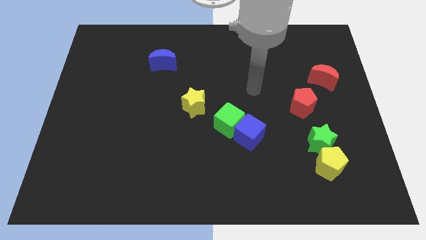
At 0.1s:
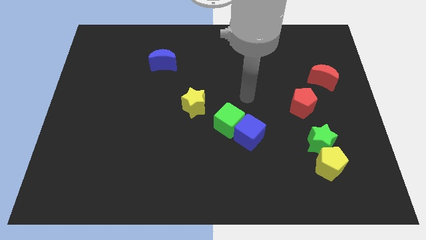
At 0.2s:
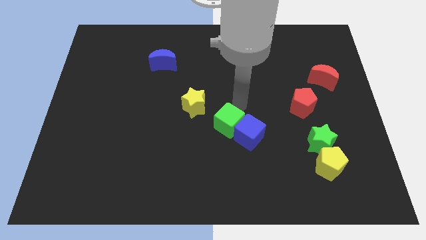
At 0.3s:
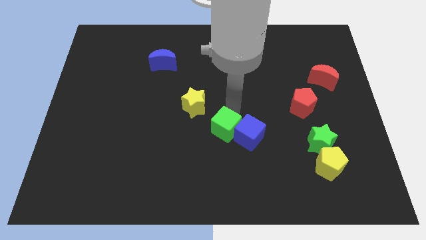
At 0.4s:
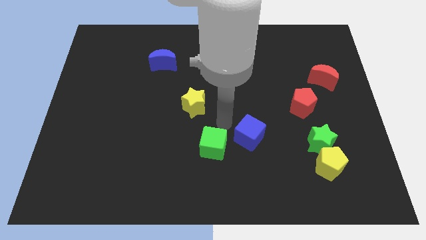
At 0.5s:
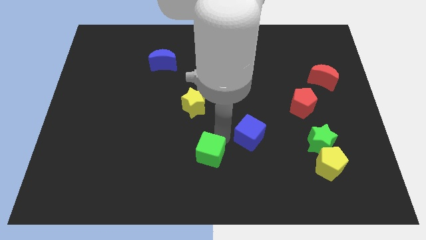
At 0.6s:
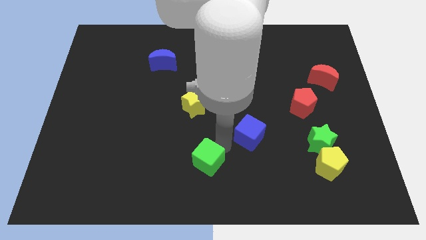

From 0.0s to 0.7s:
pull the blue cube apart from the green cube

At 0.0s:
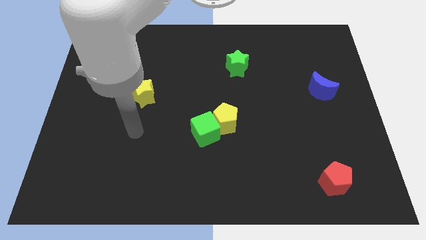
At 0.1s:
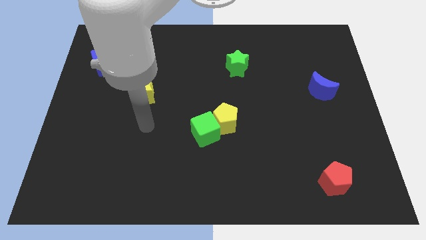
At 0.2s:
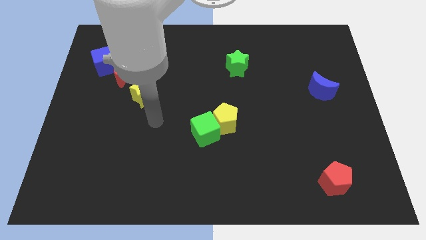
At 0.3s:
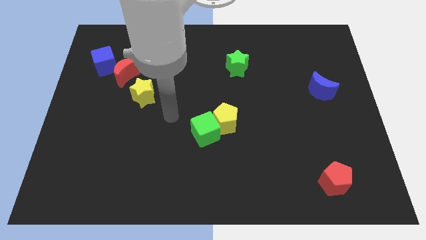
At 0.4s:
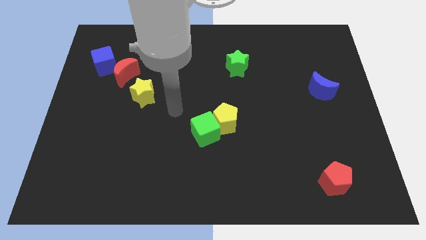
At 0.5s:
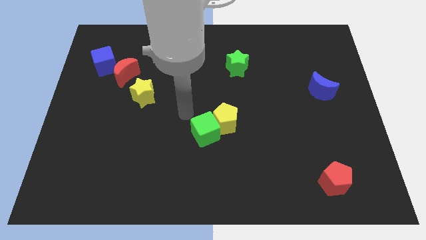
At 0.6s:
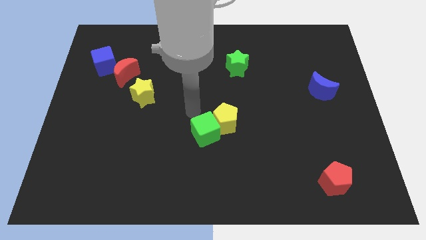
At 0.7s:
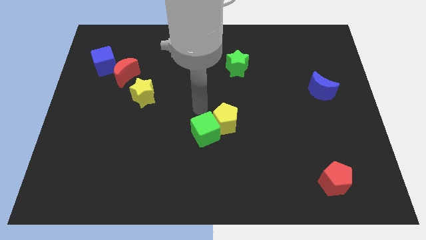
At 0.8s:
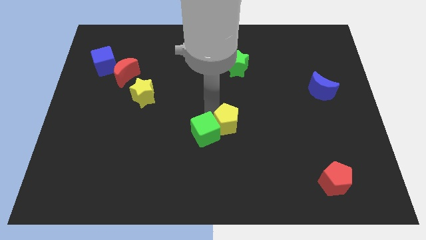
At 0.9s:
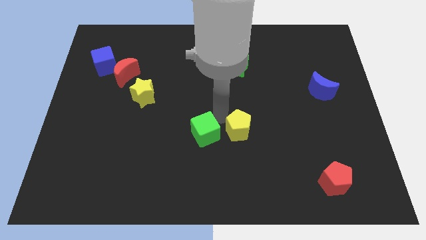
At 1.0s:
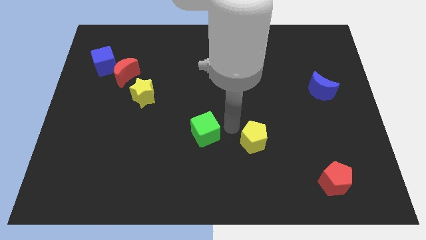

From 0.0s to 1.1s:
move the green cube away from the yellow pentagon

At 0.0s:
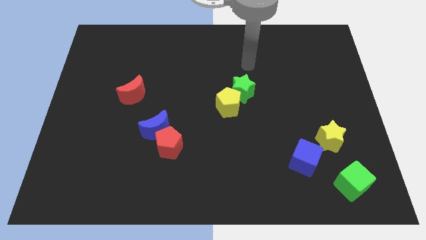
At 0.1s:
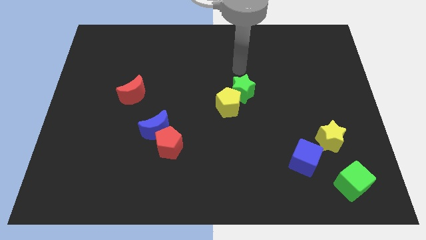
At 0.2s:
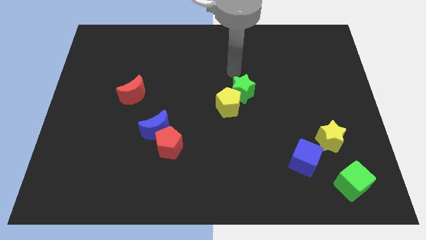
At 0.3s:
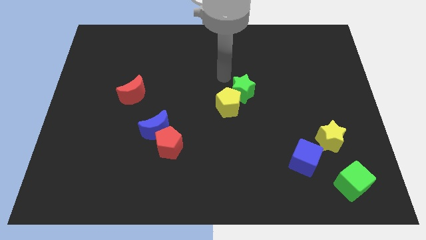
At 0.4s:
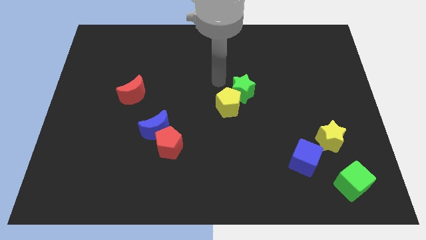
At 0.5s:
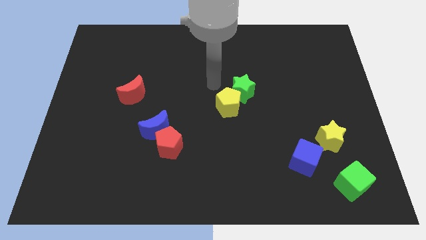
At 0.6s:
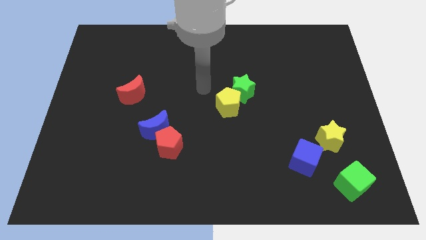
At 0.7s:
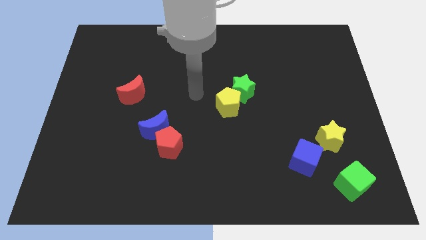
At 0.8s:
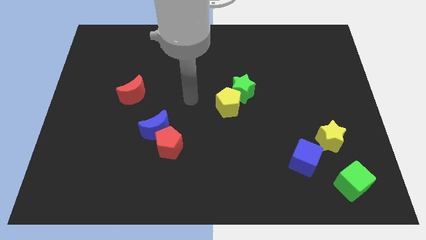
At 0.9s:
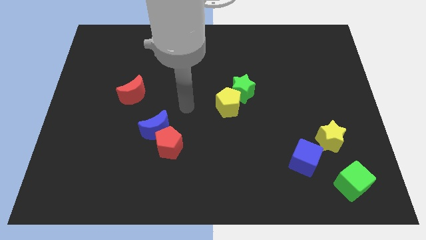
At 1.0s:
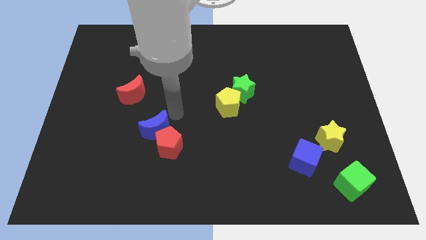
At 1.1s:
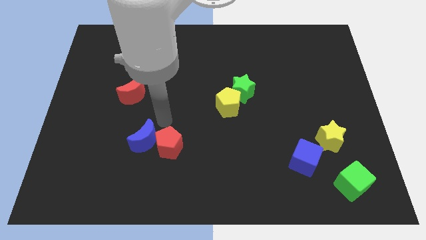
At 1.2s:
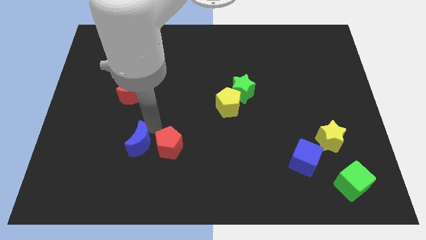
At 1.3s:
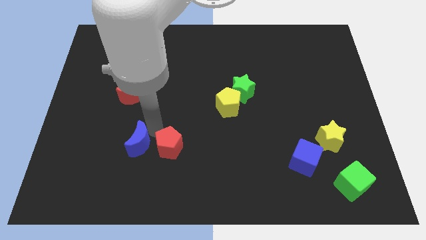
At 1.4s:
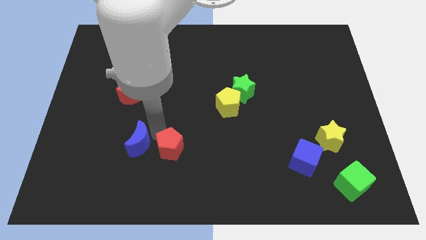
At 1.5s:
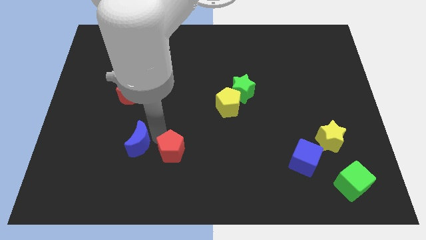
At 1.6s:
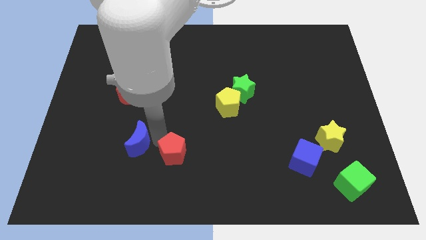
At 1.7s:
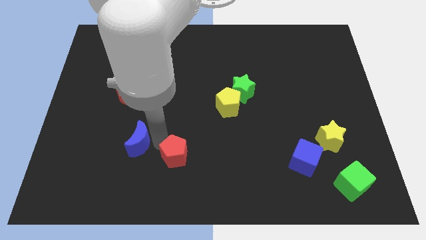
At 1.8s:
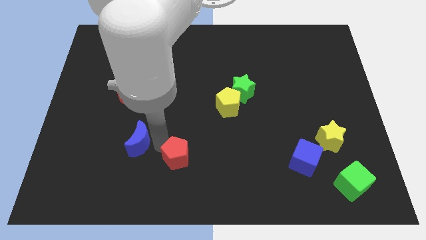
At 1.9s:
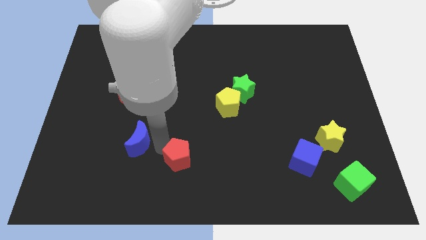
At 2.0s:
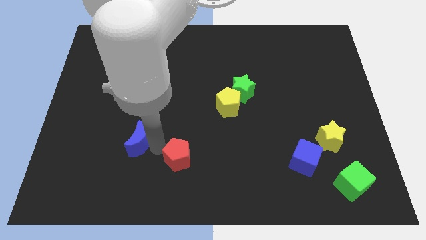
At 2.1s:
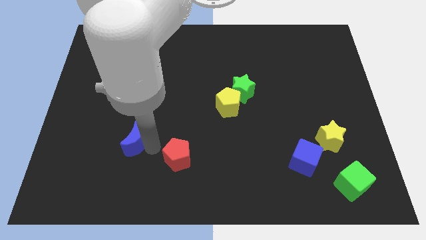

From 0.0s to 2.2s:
pull the red pentagon apart from the blue moon

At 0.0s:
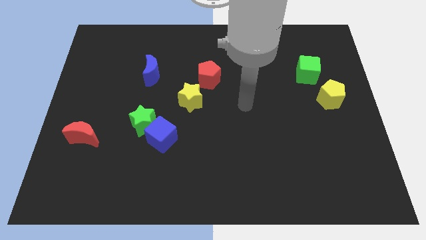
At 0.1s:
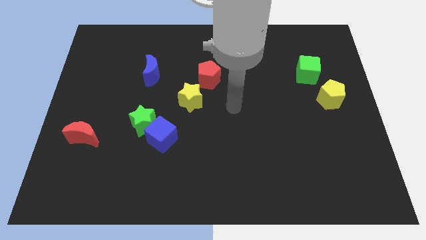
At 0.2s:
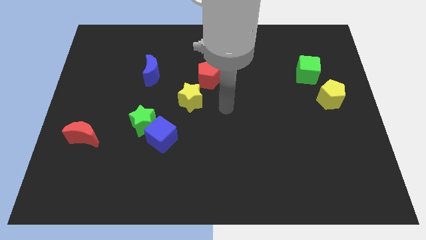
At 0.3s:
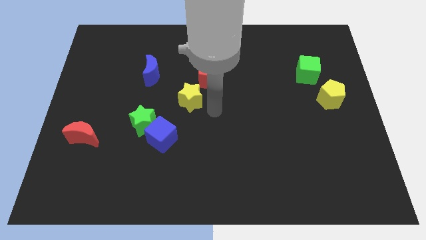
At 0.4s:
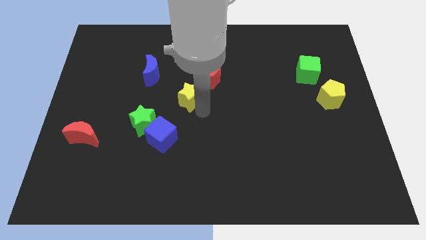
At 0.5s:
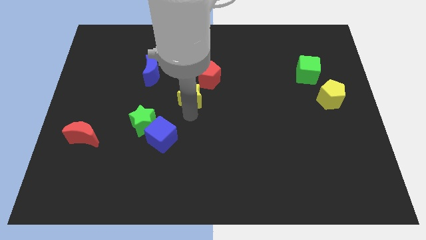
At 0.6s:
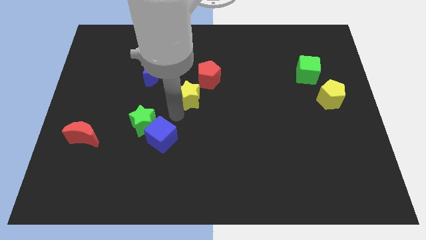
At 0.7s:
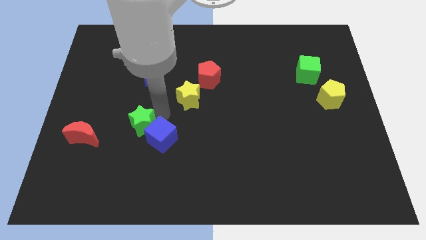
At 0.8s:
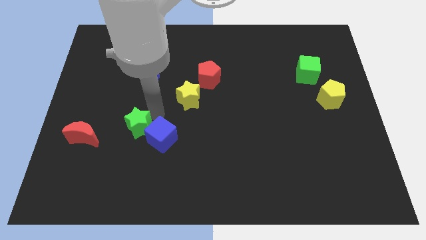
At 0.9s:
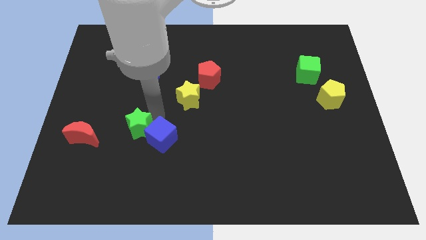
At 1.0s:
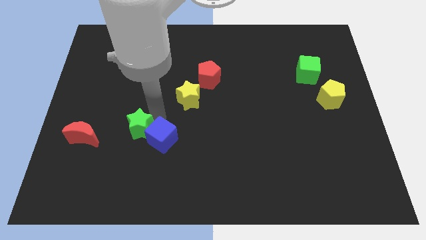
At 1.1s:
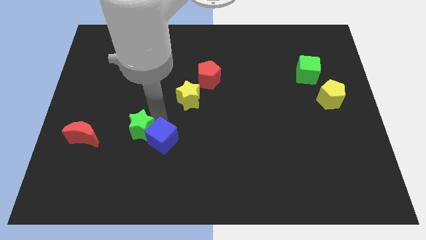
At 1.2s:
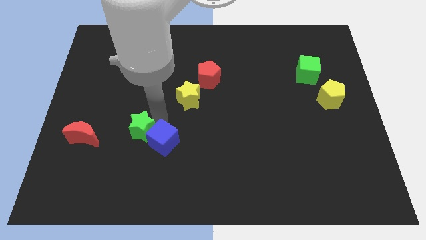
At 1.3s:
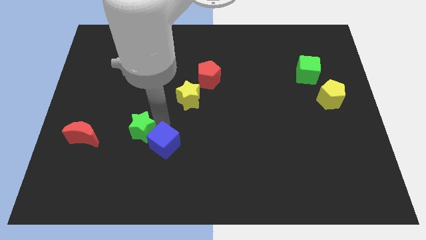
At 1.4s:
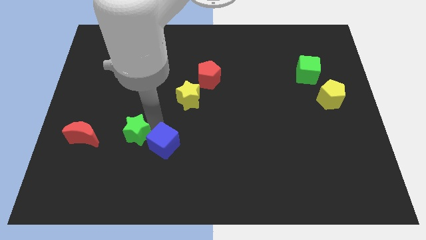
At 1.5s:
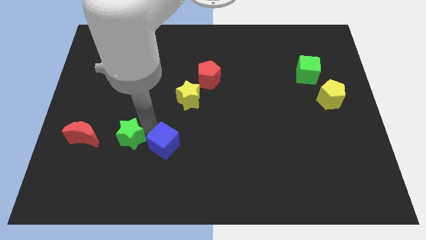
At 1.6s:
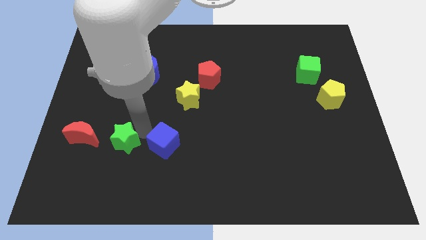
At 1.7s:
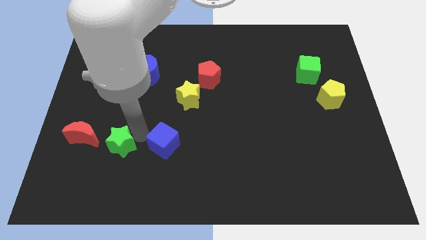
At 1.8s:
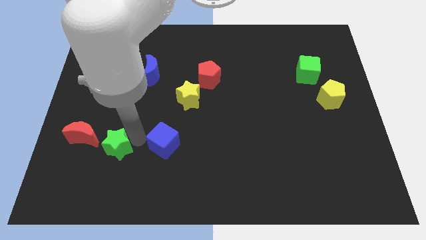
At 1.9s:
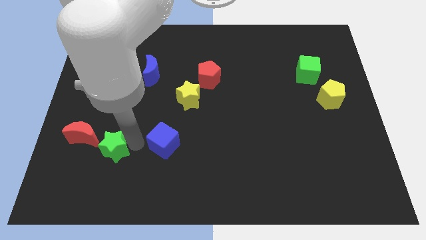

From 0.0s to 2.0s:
separate the blue cube from the green star

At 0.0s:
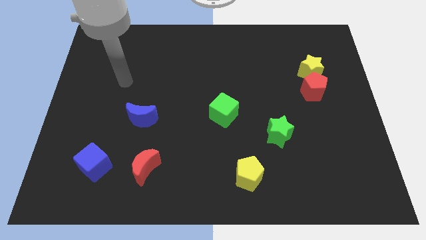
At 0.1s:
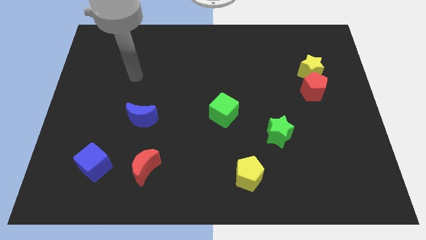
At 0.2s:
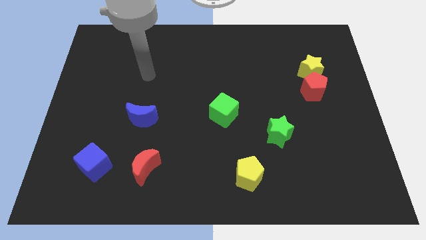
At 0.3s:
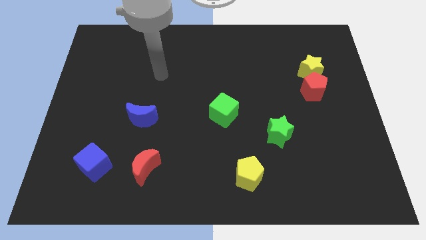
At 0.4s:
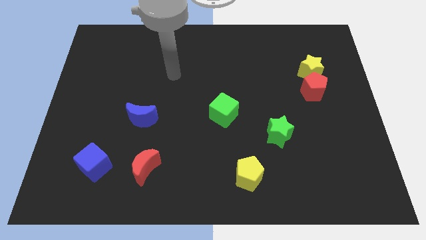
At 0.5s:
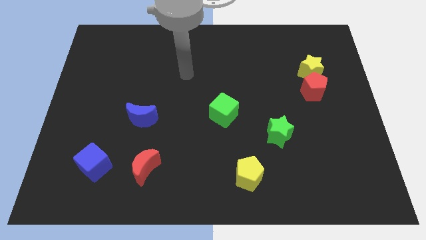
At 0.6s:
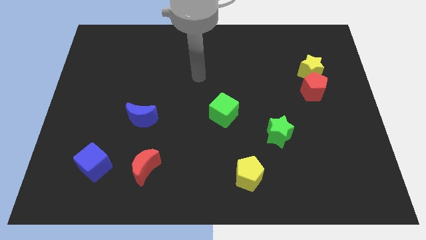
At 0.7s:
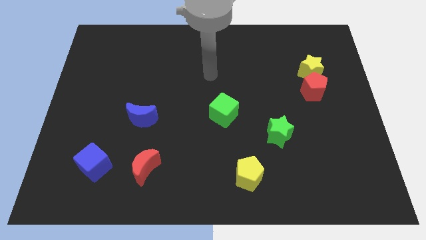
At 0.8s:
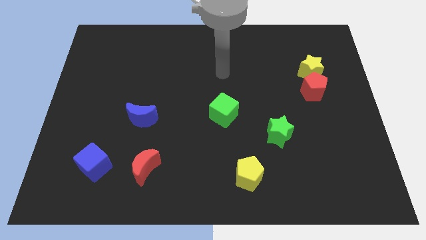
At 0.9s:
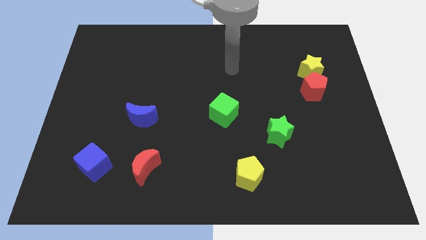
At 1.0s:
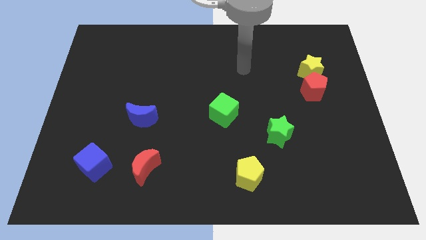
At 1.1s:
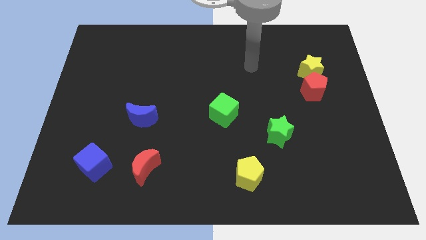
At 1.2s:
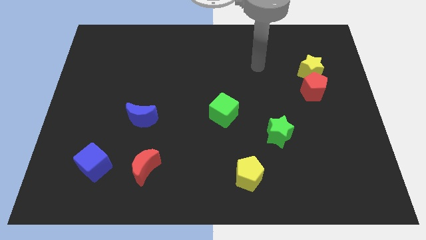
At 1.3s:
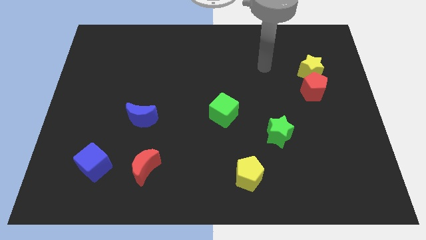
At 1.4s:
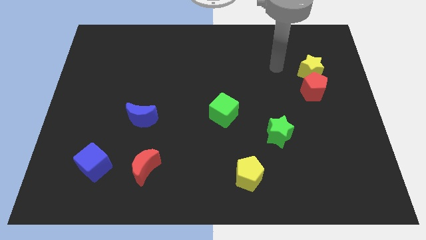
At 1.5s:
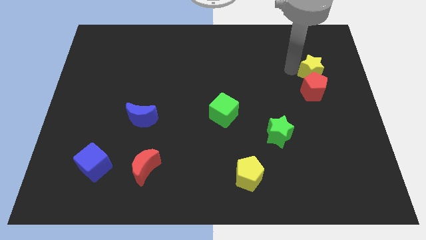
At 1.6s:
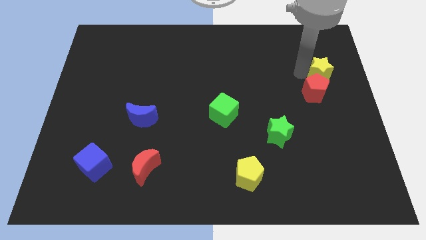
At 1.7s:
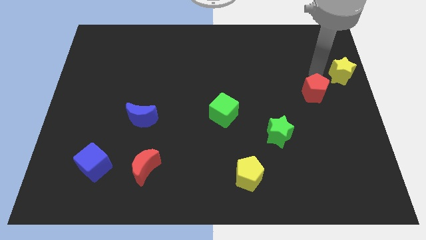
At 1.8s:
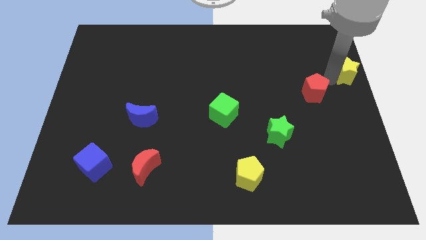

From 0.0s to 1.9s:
pull the red pentagon apart from the yellow star

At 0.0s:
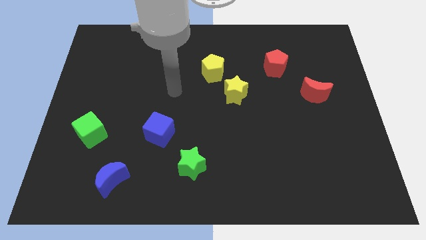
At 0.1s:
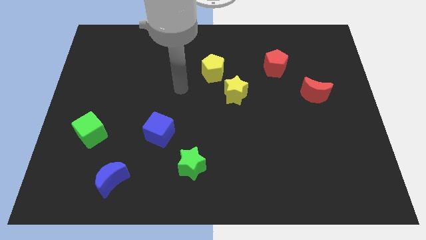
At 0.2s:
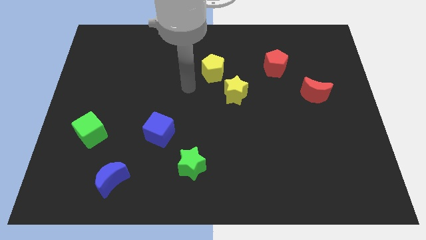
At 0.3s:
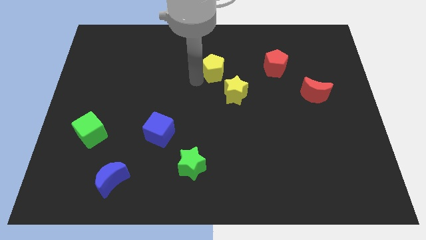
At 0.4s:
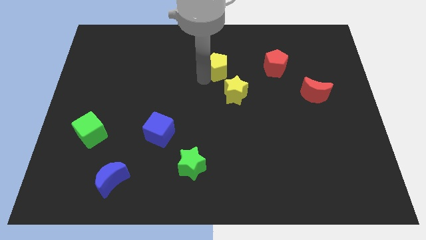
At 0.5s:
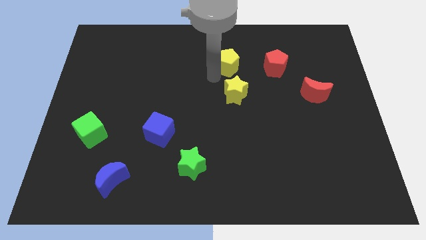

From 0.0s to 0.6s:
separate the yellow star from the yellow pentagon

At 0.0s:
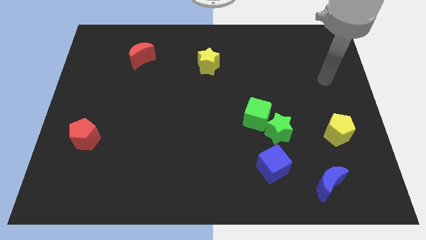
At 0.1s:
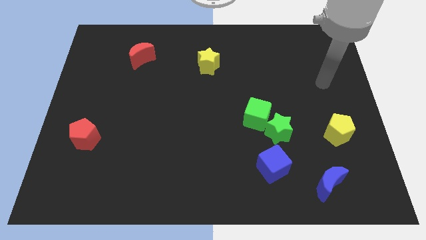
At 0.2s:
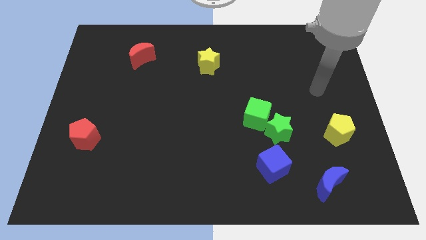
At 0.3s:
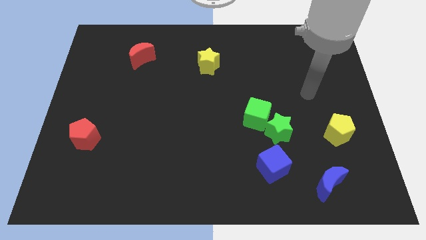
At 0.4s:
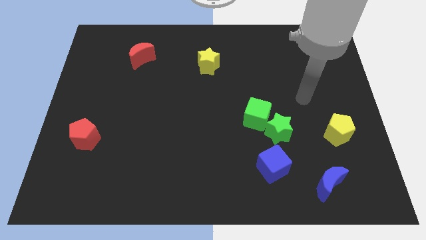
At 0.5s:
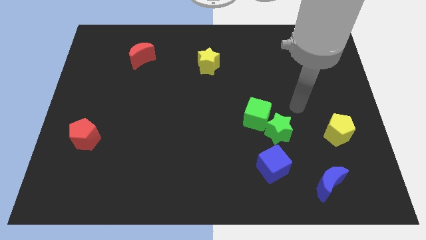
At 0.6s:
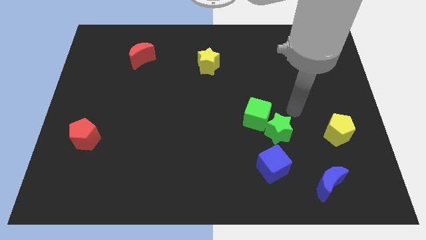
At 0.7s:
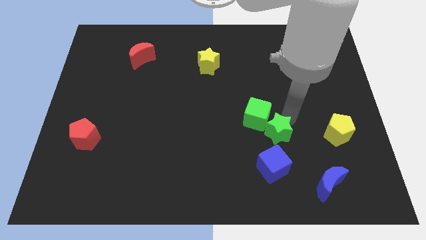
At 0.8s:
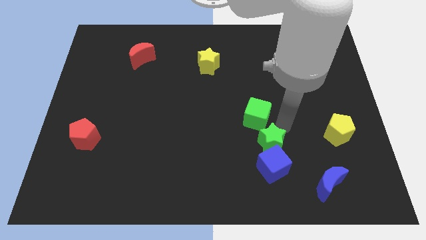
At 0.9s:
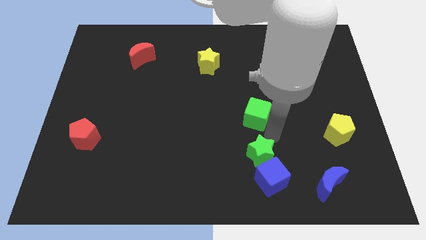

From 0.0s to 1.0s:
pull the green cube apart from the green star
